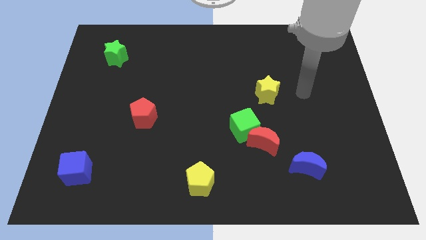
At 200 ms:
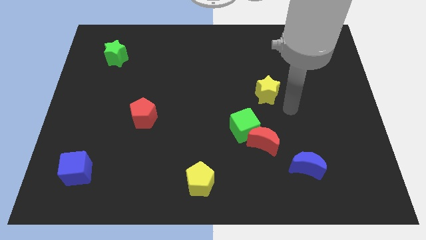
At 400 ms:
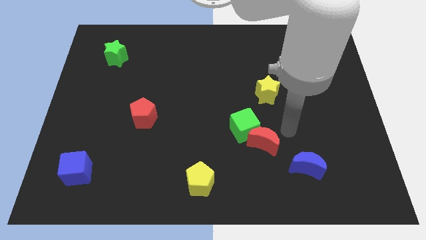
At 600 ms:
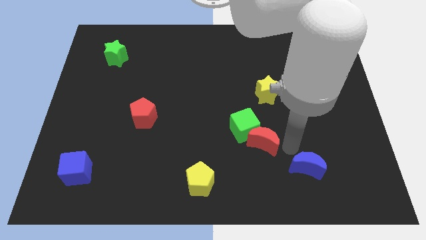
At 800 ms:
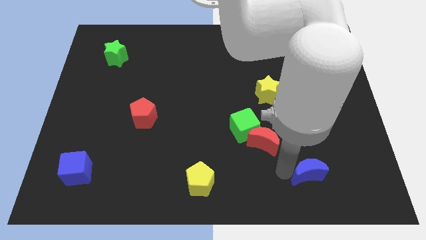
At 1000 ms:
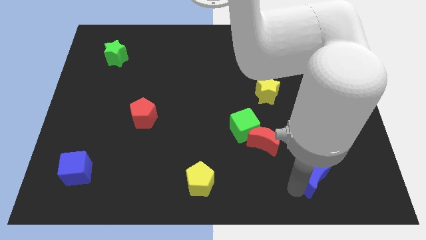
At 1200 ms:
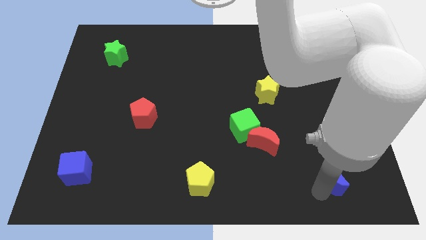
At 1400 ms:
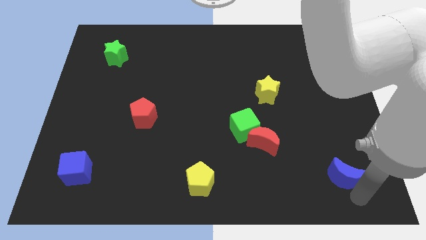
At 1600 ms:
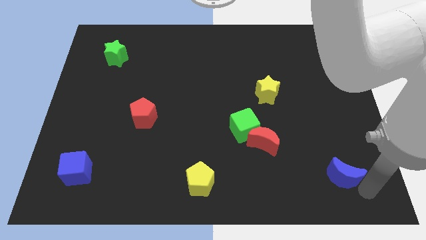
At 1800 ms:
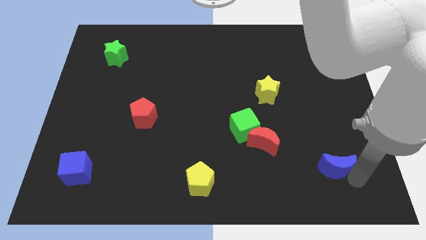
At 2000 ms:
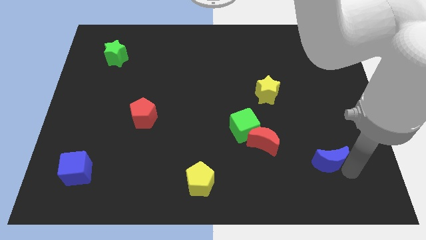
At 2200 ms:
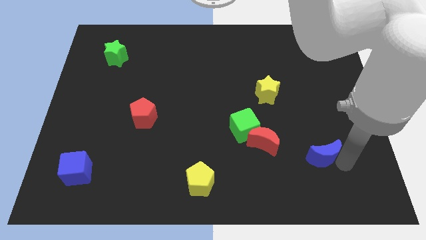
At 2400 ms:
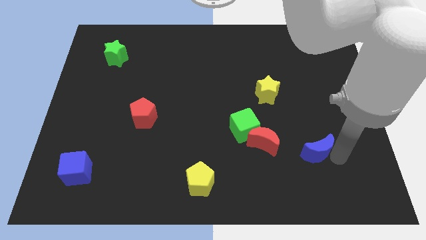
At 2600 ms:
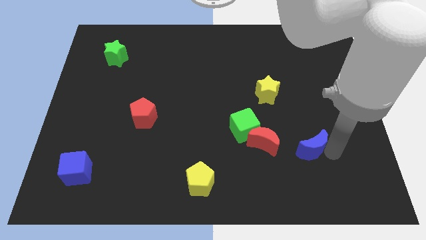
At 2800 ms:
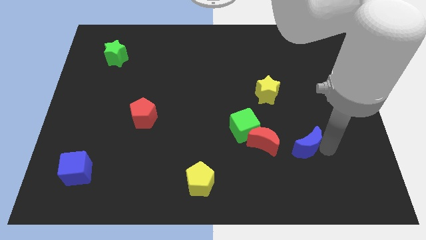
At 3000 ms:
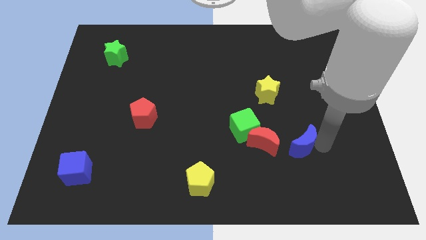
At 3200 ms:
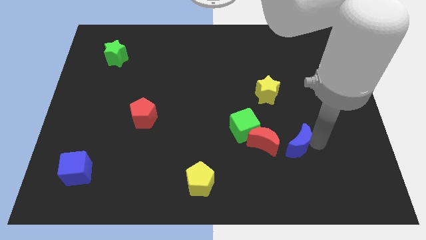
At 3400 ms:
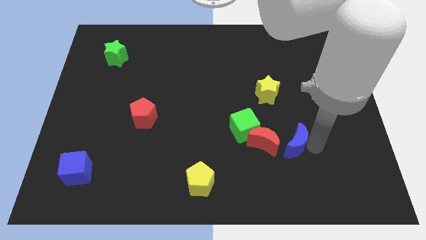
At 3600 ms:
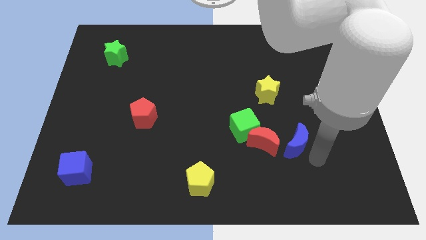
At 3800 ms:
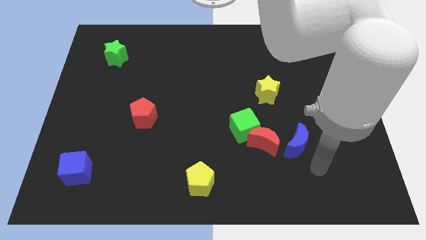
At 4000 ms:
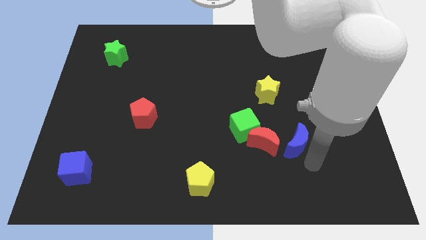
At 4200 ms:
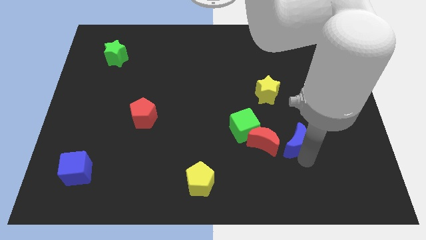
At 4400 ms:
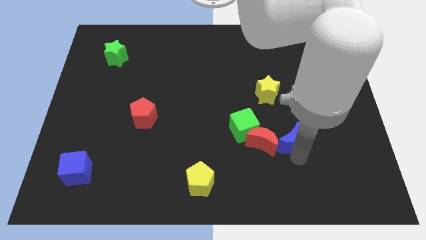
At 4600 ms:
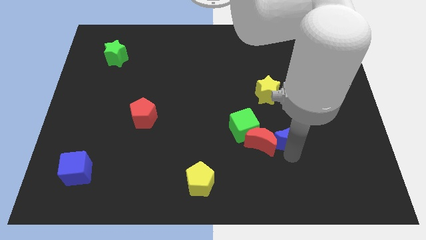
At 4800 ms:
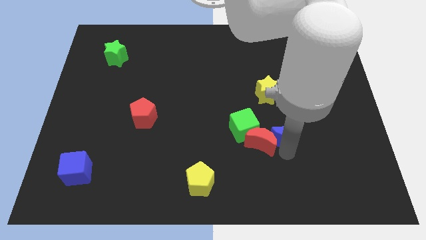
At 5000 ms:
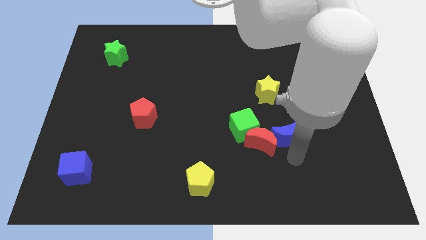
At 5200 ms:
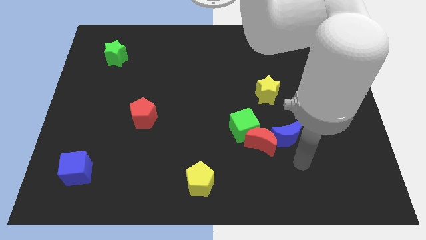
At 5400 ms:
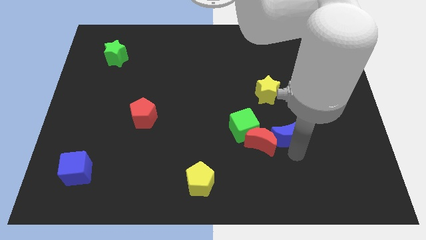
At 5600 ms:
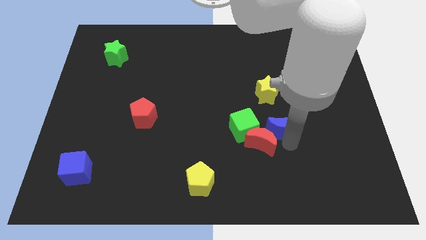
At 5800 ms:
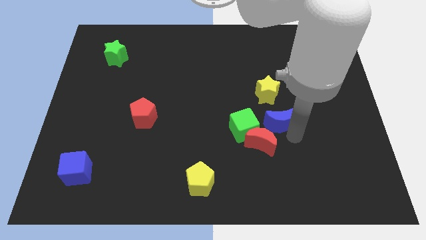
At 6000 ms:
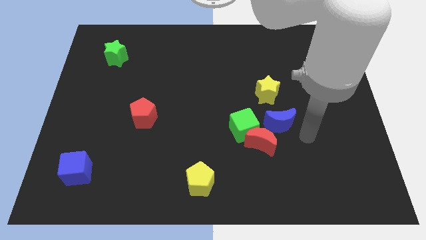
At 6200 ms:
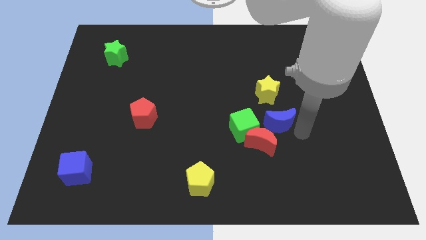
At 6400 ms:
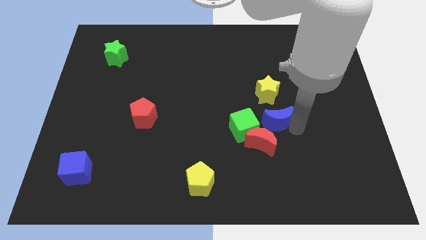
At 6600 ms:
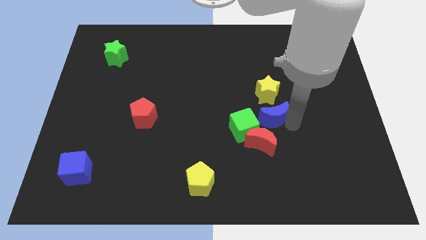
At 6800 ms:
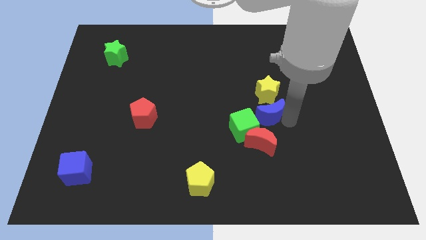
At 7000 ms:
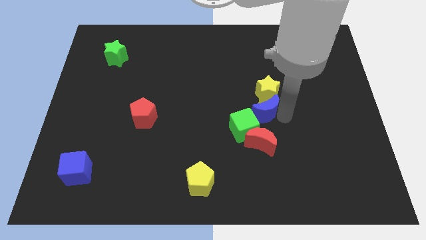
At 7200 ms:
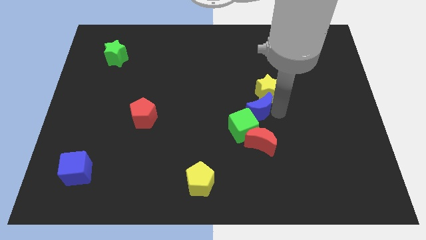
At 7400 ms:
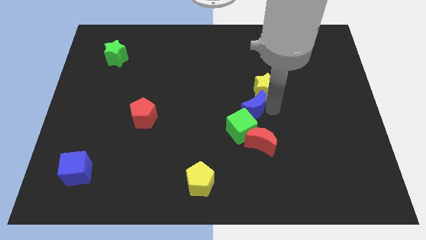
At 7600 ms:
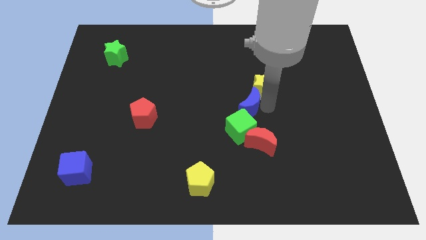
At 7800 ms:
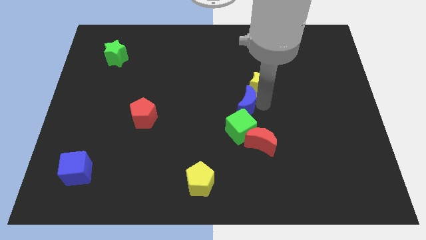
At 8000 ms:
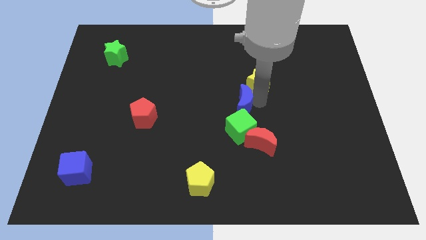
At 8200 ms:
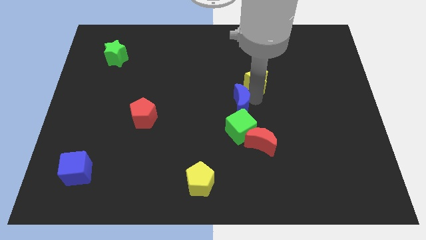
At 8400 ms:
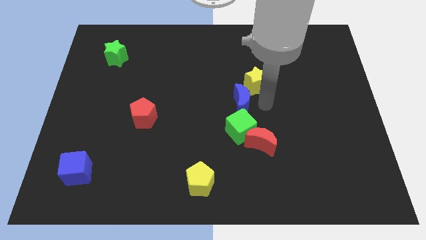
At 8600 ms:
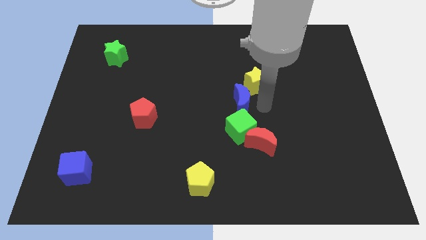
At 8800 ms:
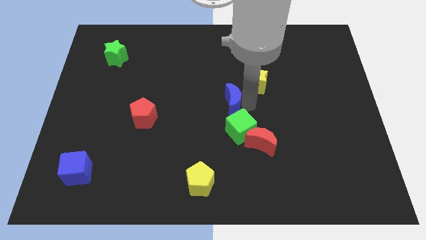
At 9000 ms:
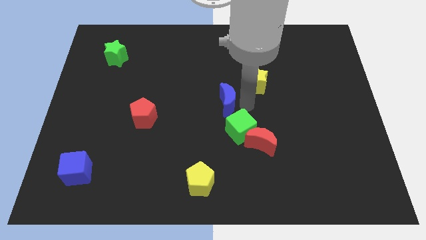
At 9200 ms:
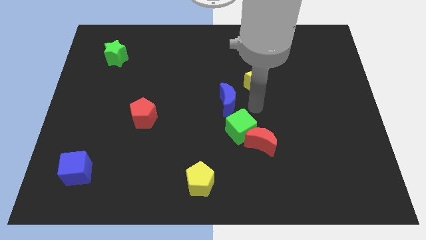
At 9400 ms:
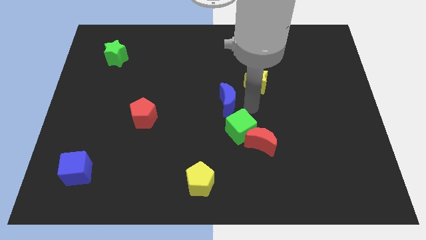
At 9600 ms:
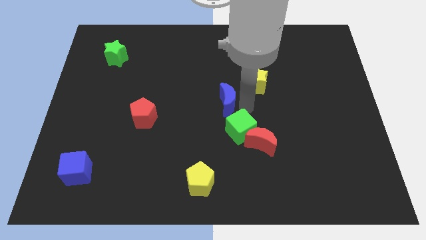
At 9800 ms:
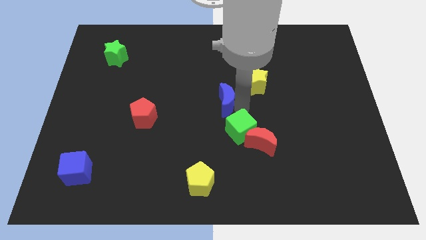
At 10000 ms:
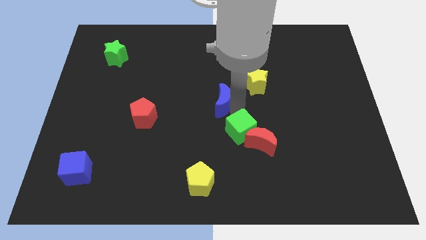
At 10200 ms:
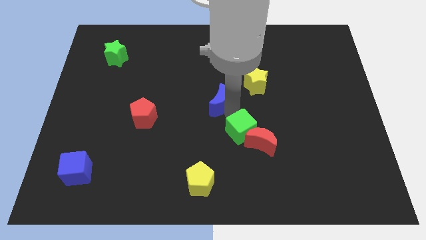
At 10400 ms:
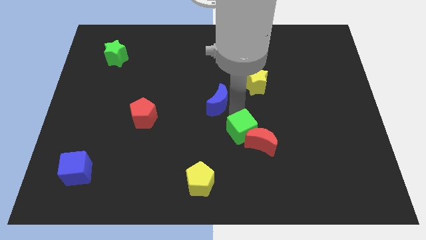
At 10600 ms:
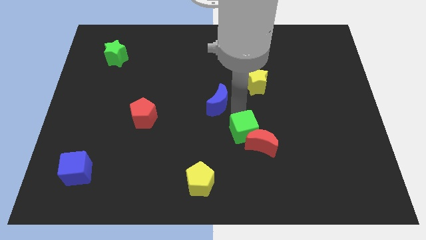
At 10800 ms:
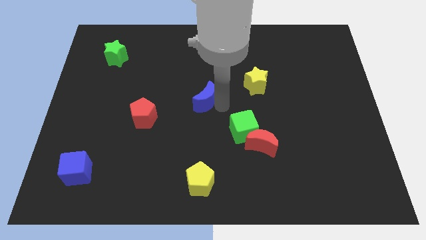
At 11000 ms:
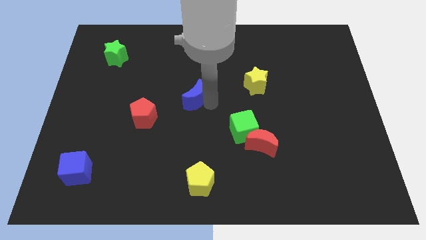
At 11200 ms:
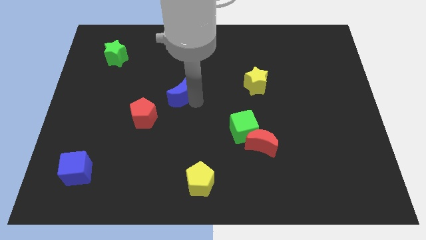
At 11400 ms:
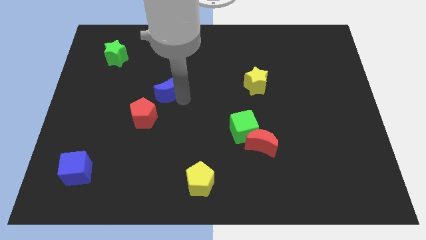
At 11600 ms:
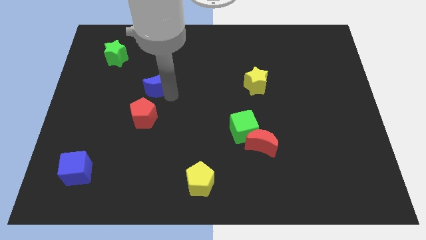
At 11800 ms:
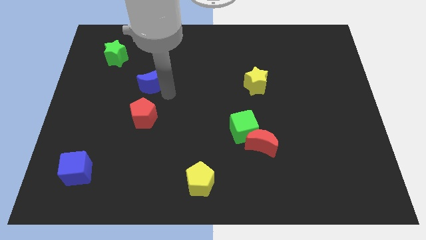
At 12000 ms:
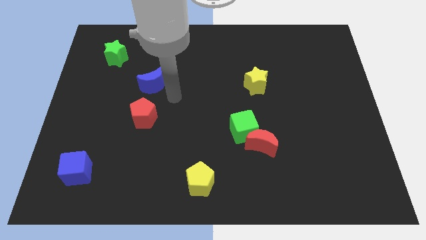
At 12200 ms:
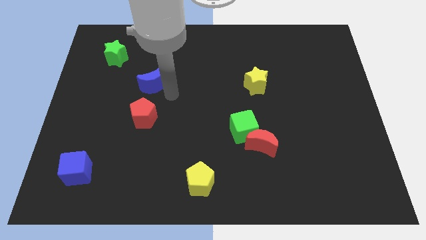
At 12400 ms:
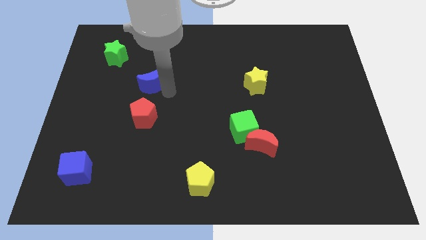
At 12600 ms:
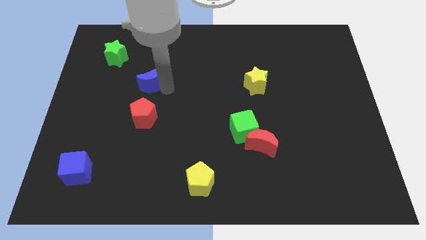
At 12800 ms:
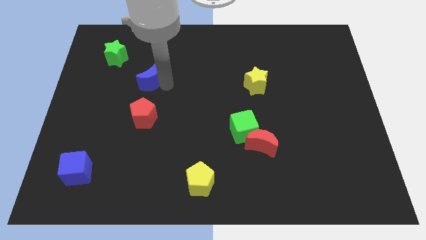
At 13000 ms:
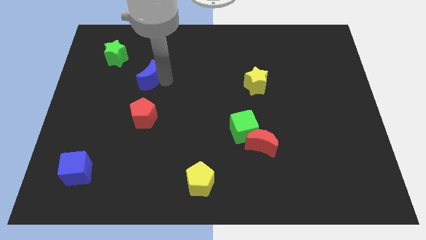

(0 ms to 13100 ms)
move the blue moon diagonally down and to the right of the green star
